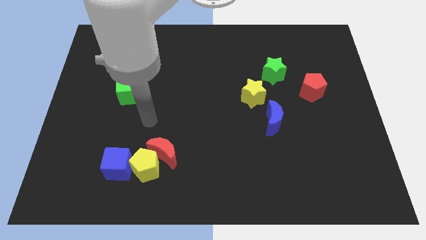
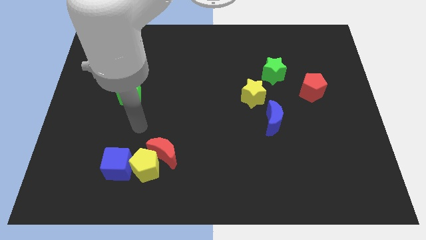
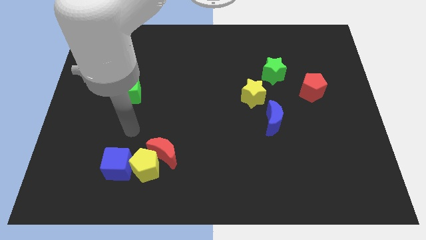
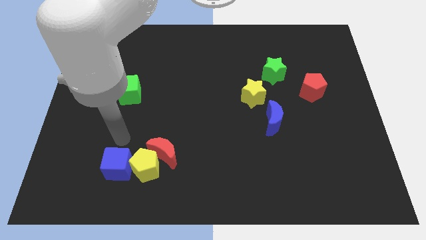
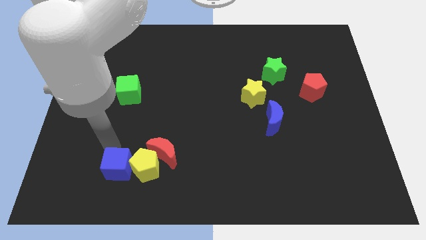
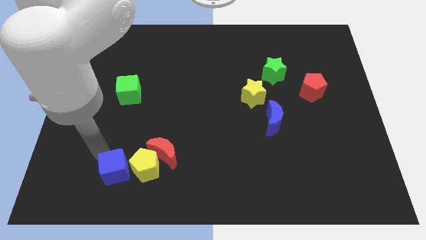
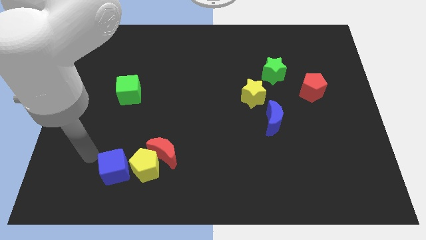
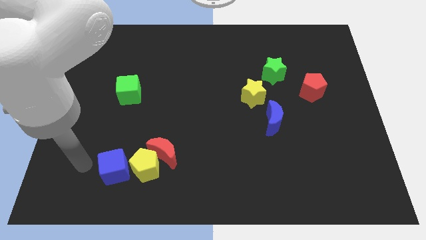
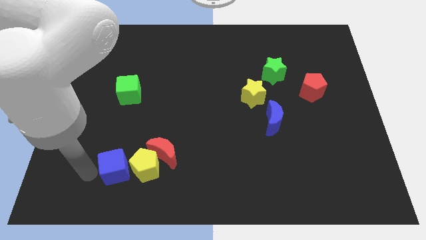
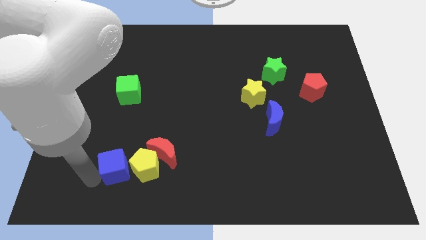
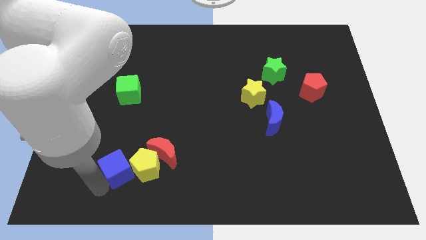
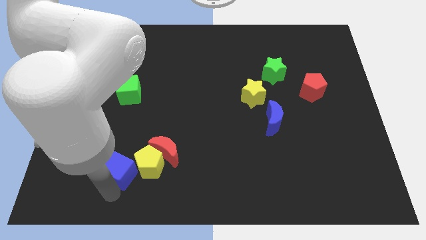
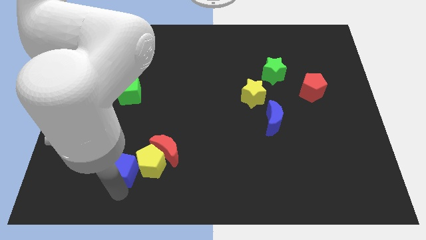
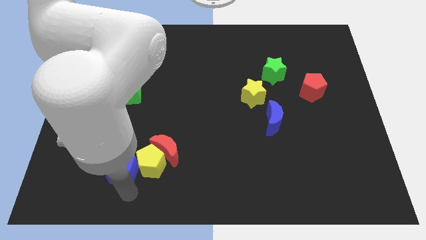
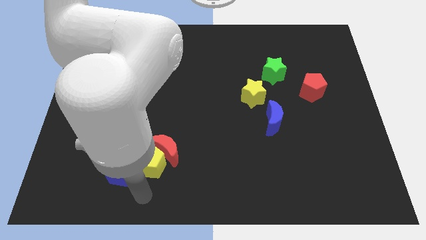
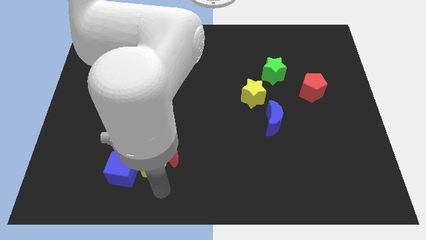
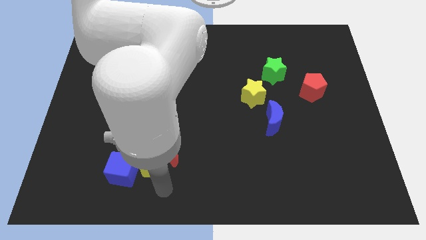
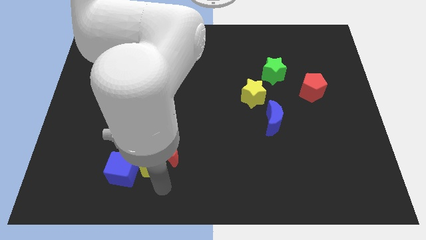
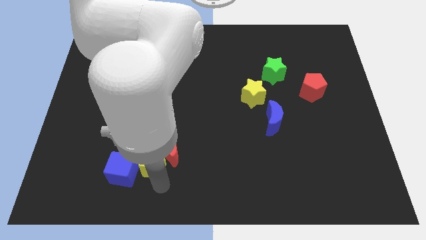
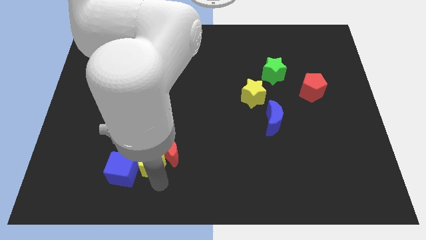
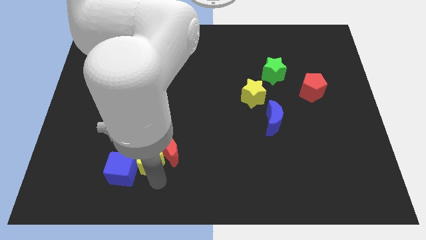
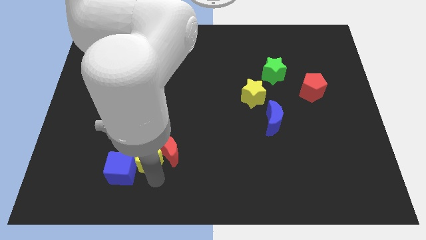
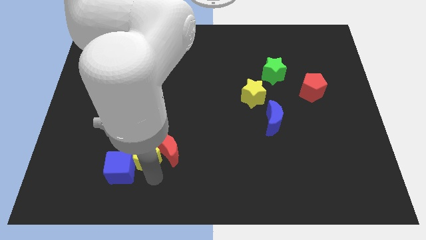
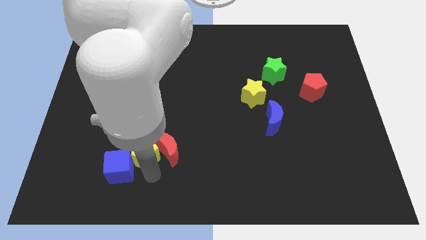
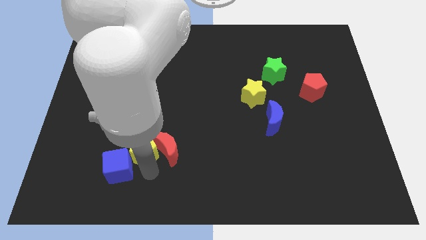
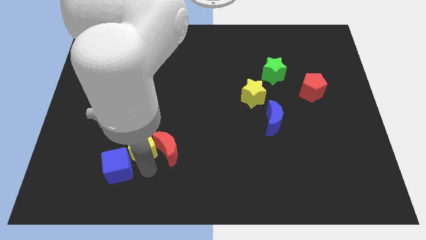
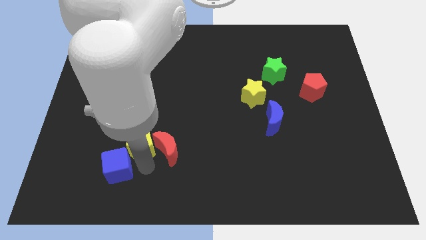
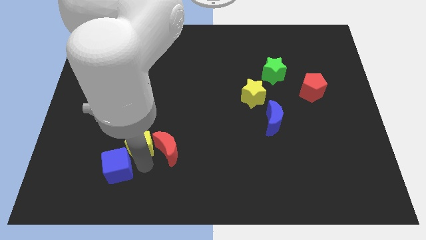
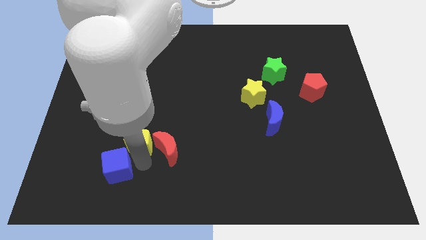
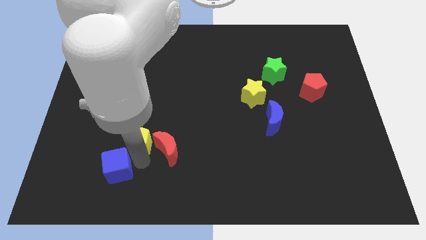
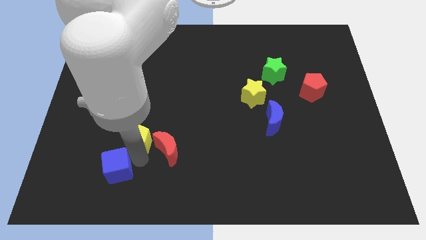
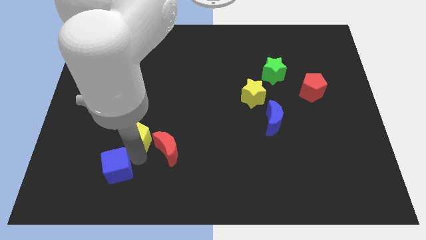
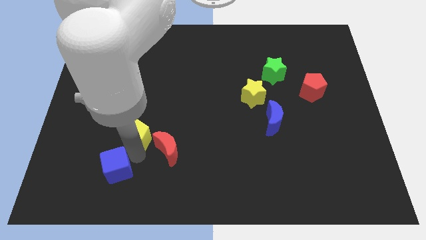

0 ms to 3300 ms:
slightly push the yellow pentagon upwards

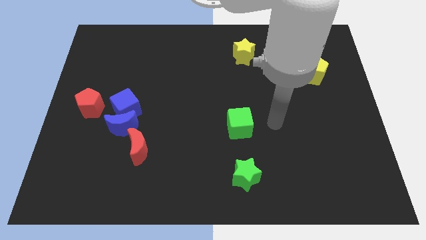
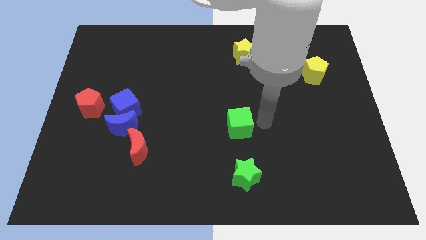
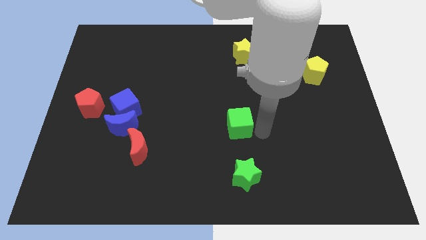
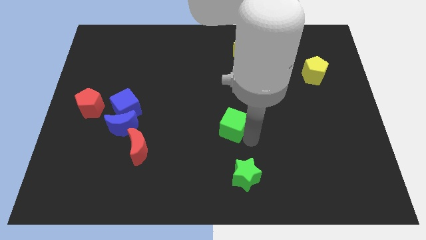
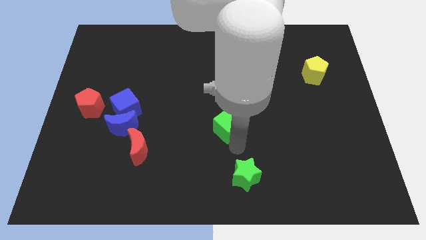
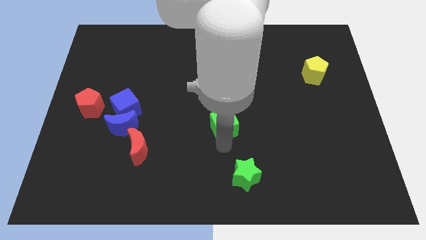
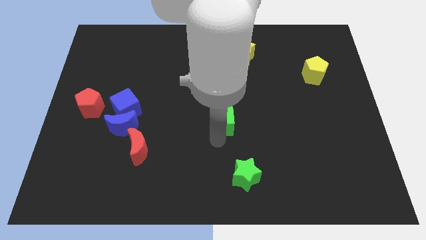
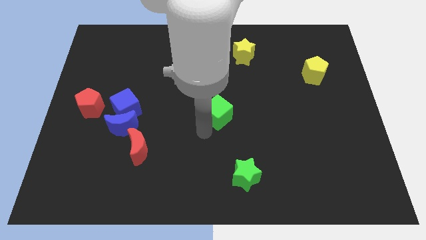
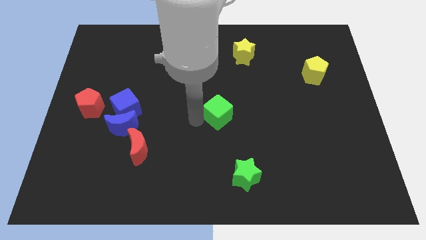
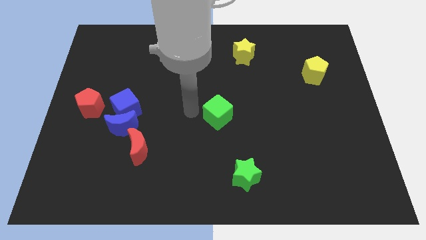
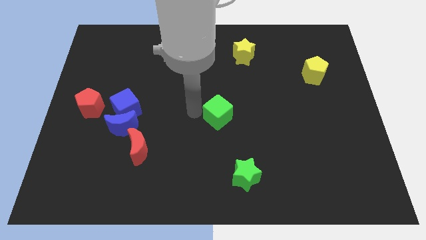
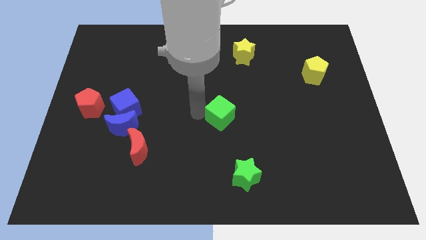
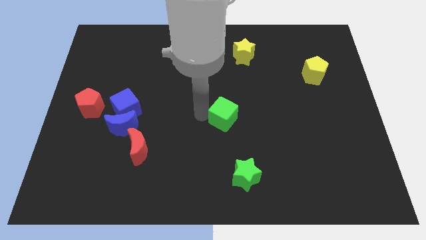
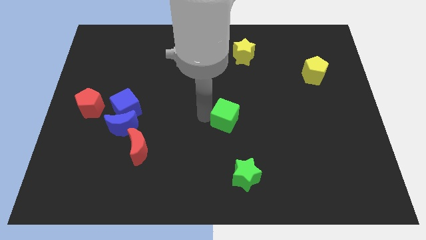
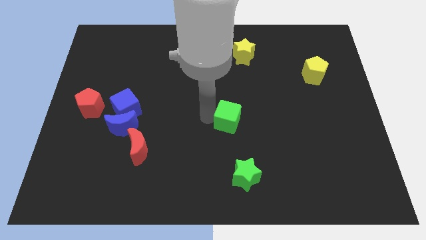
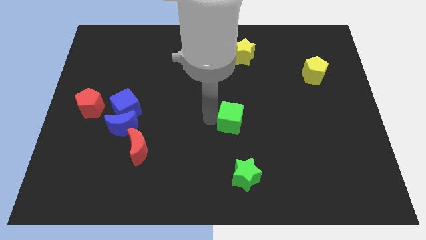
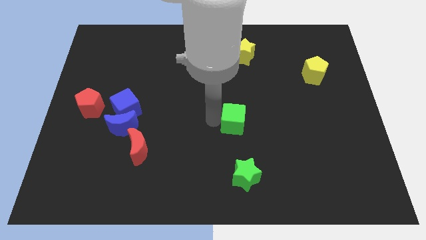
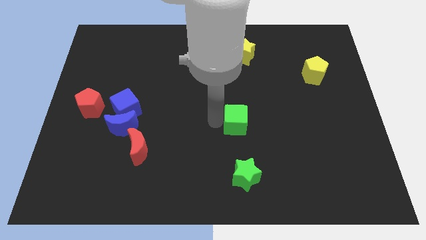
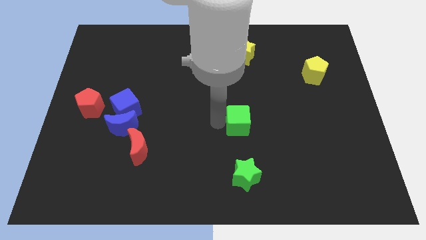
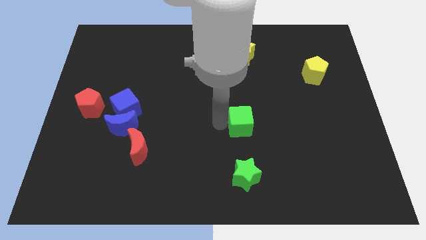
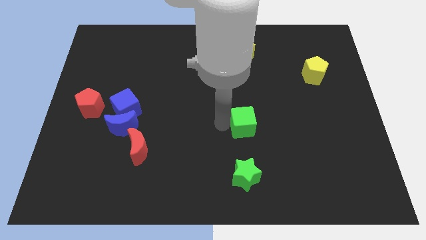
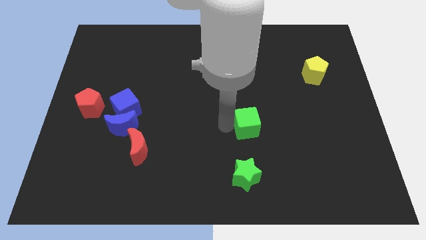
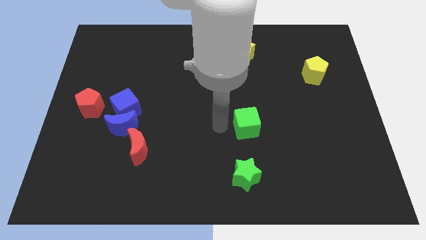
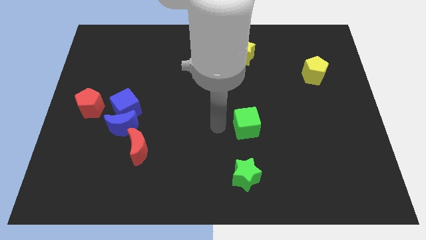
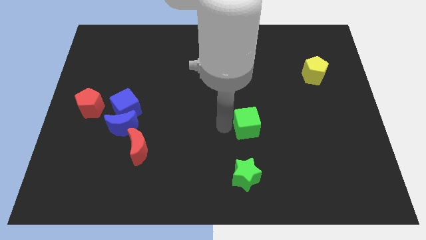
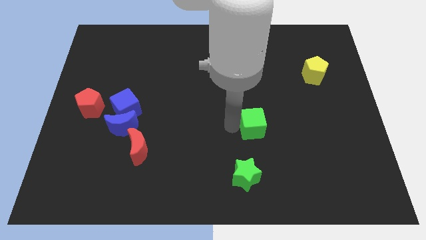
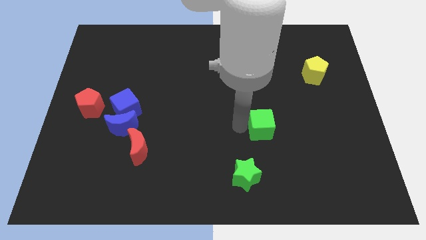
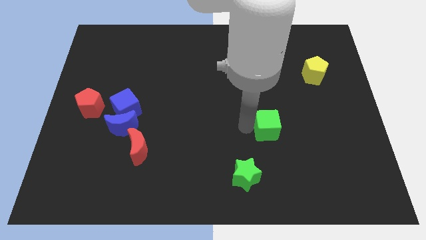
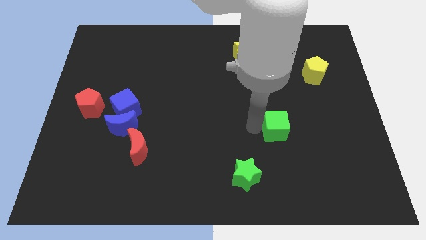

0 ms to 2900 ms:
push the green cube to the right a little bit

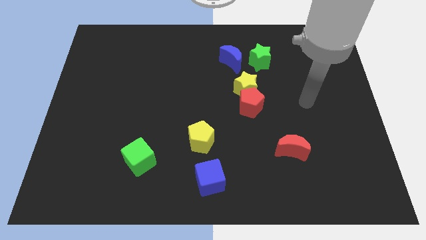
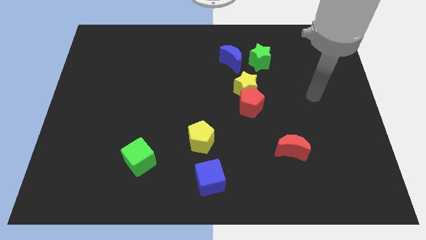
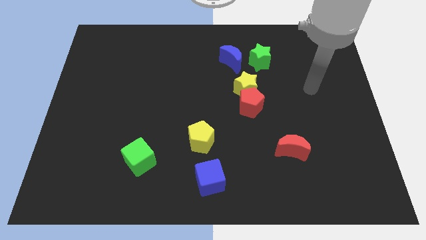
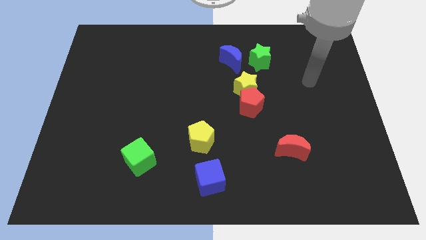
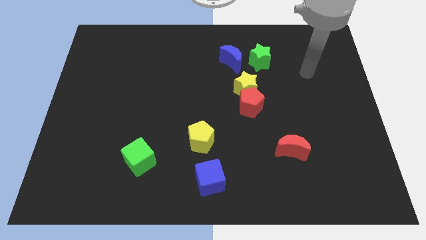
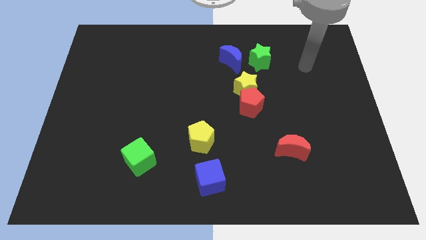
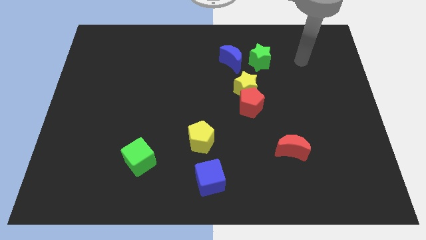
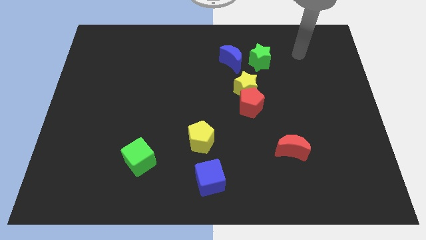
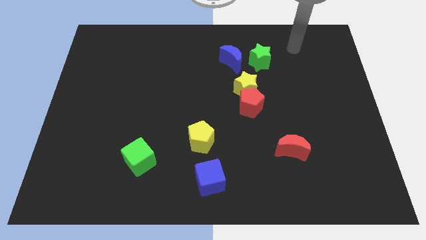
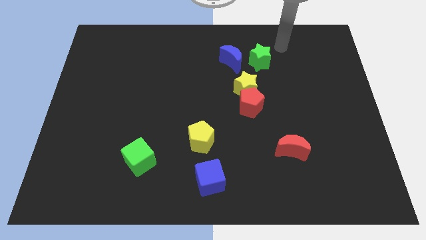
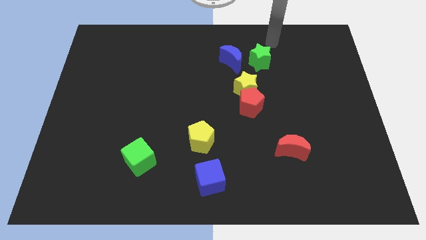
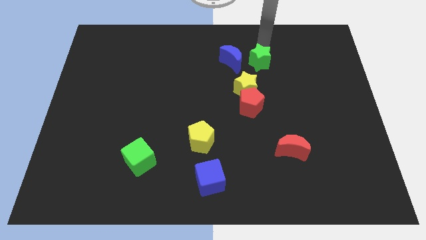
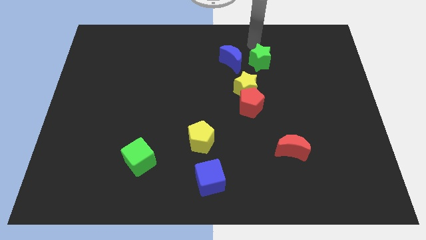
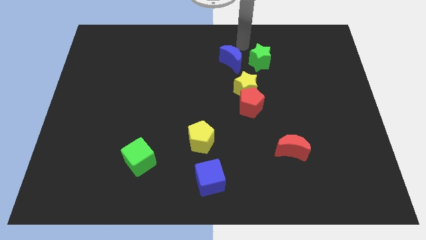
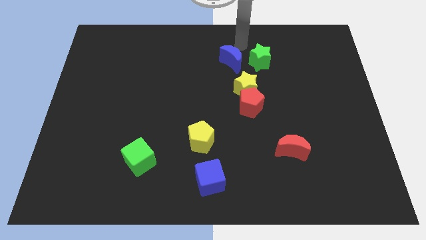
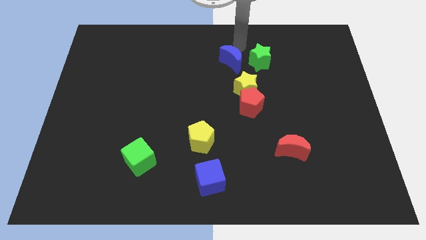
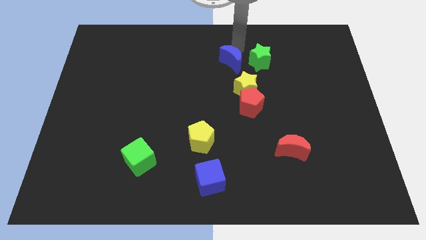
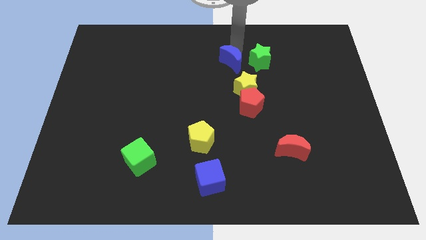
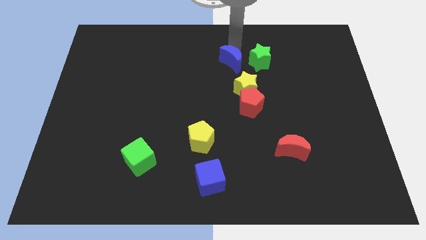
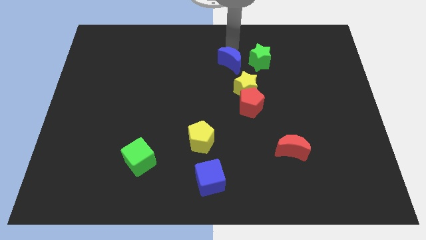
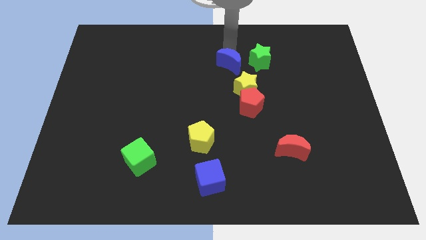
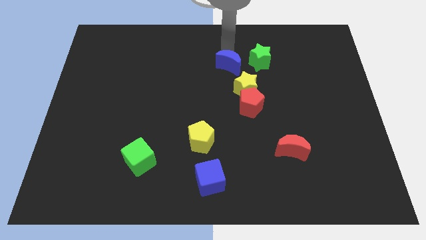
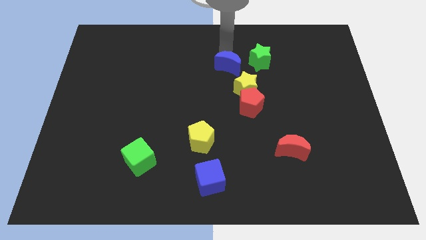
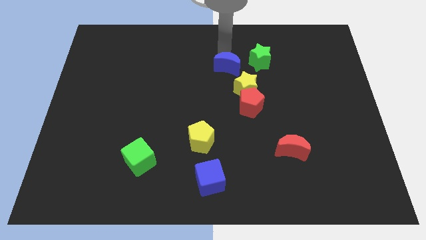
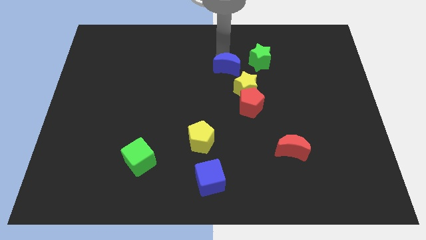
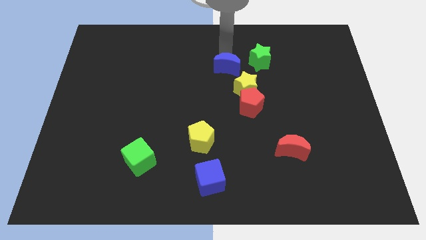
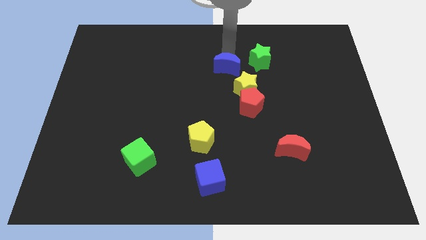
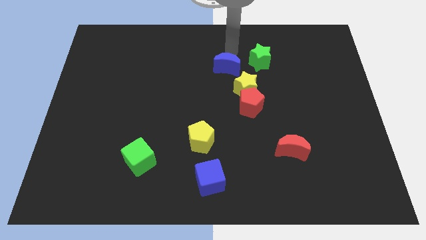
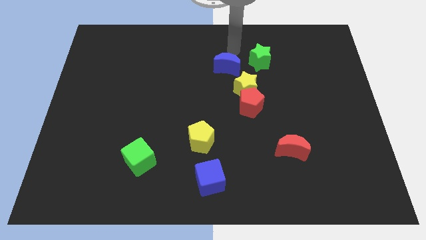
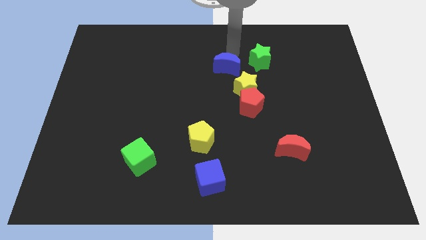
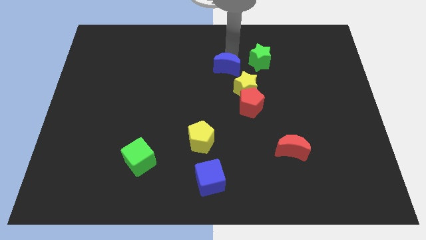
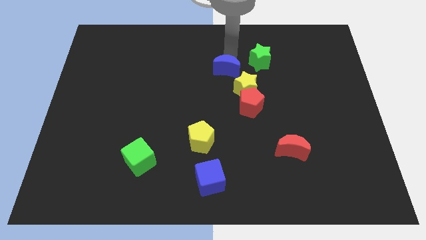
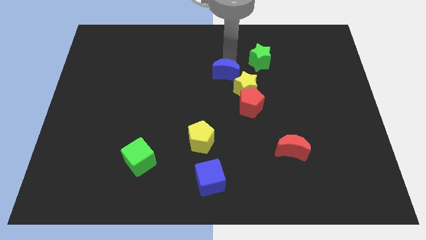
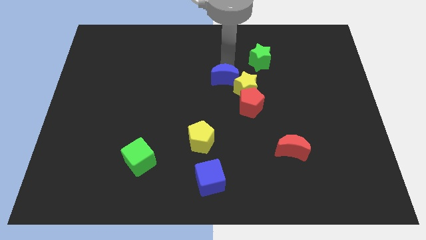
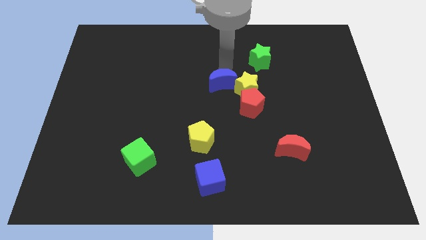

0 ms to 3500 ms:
slightly slide the blue moon downwards
